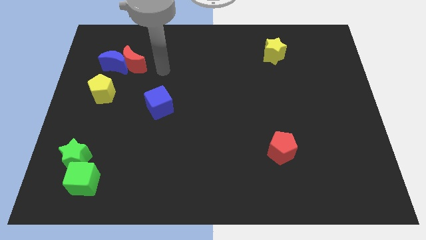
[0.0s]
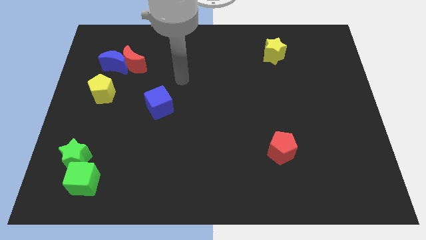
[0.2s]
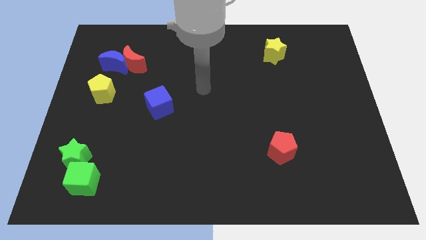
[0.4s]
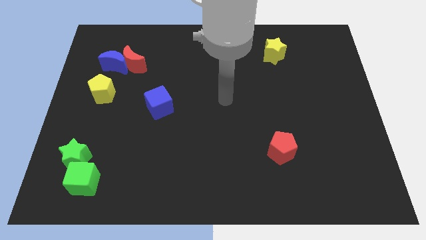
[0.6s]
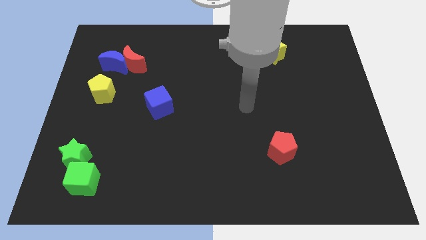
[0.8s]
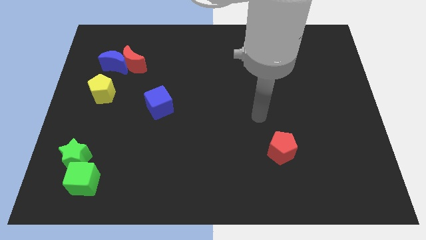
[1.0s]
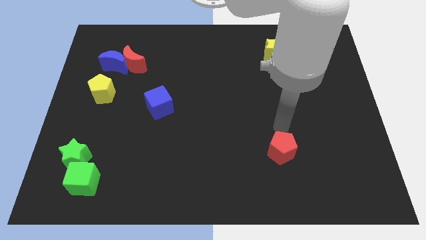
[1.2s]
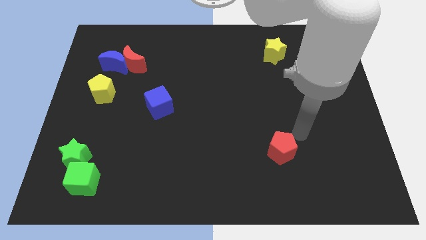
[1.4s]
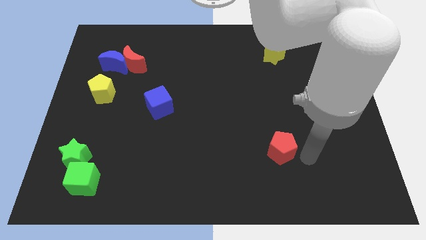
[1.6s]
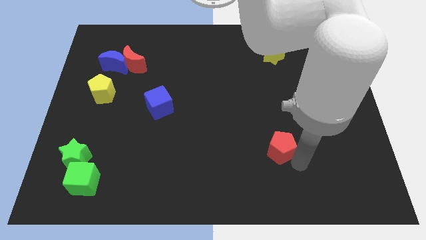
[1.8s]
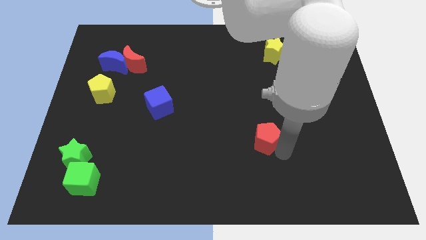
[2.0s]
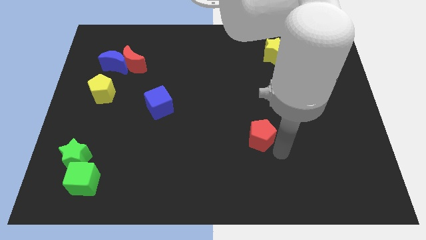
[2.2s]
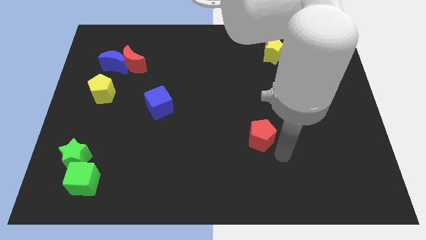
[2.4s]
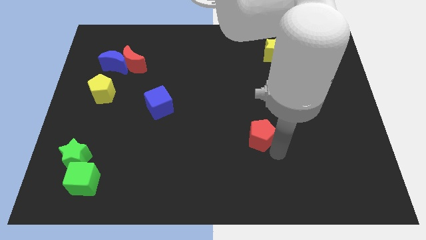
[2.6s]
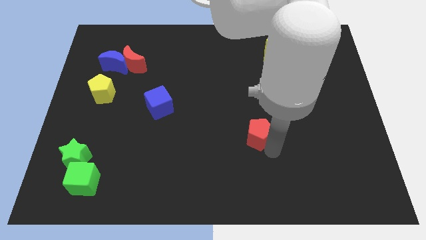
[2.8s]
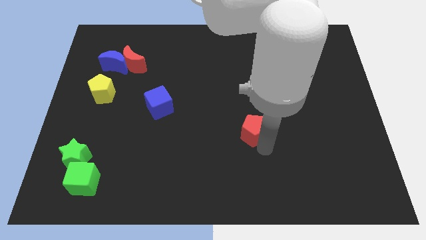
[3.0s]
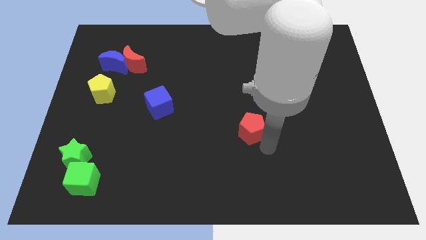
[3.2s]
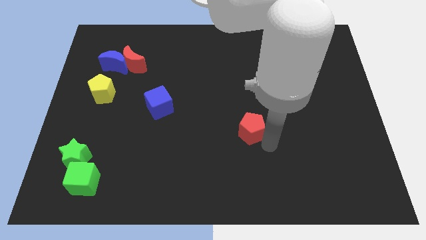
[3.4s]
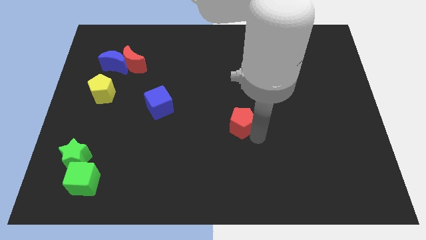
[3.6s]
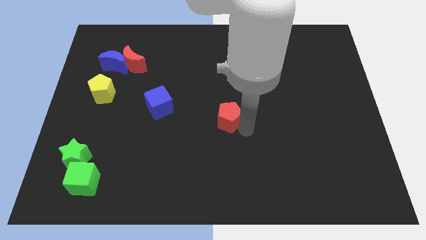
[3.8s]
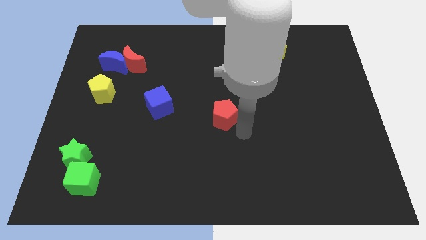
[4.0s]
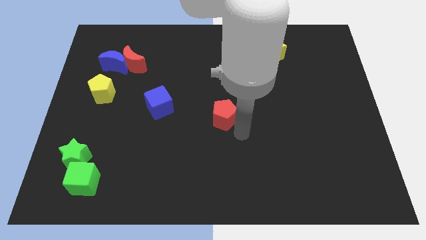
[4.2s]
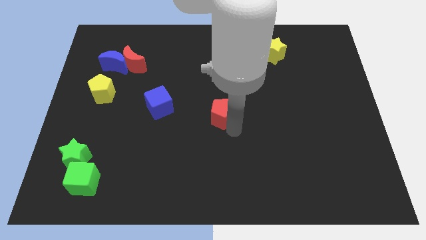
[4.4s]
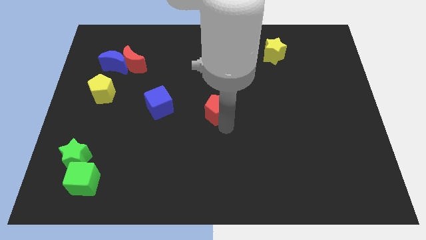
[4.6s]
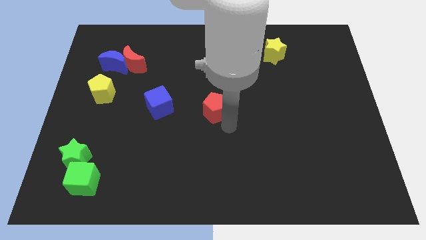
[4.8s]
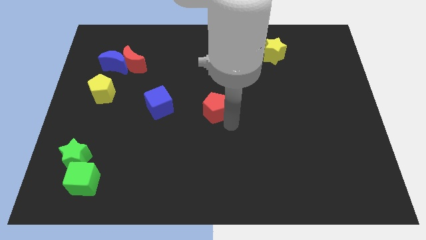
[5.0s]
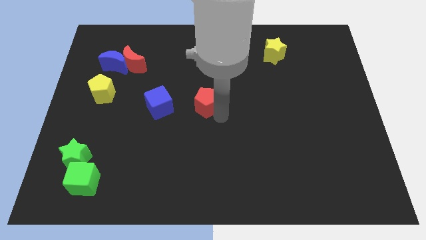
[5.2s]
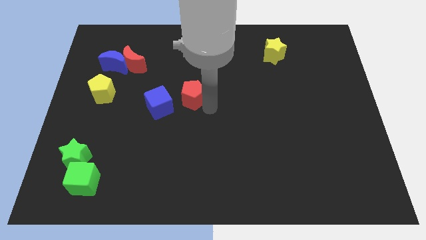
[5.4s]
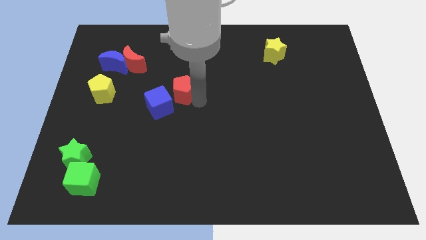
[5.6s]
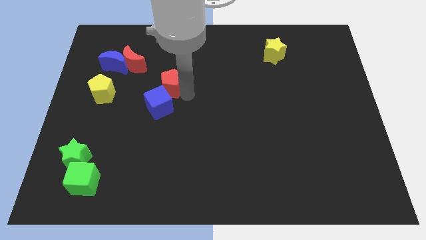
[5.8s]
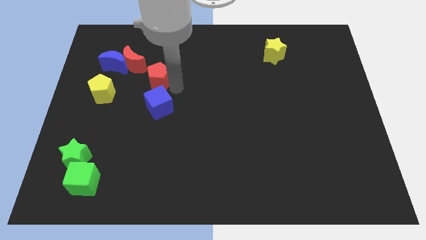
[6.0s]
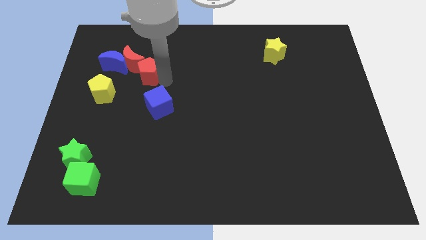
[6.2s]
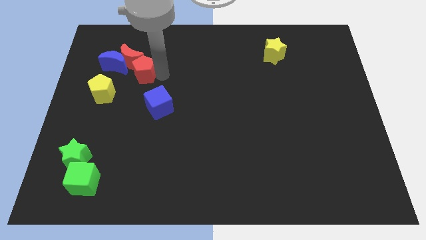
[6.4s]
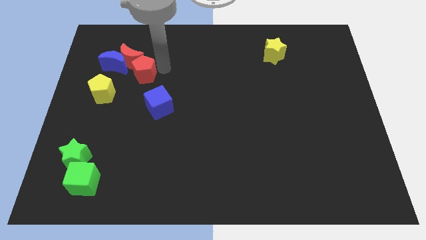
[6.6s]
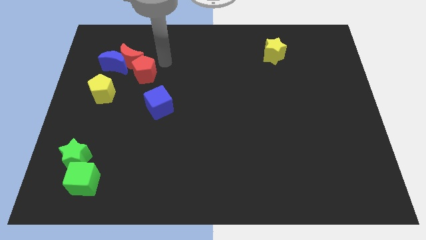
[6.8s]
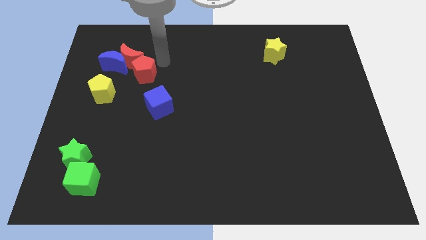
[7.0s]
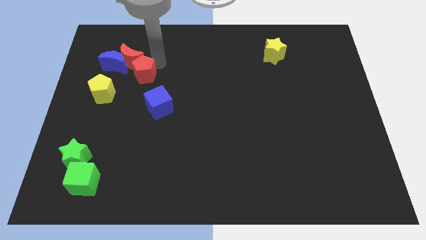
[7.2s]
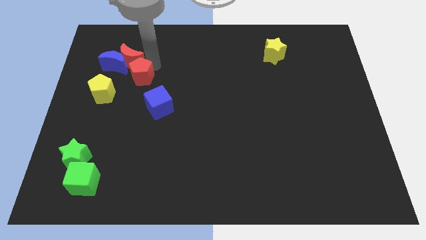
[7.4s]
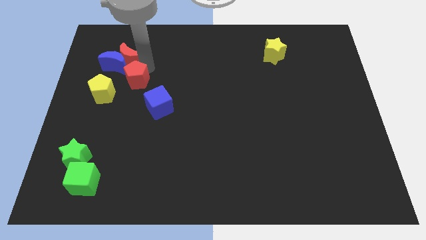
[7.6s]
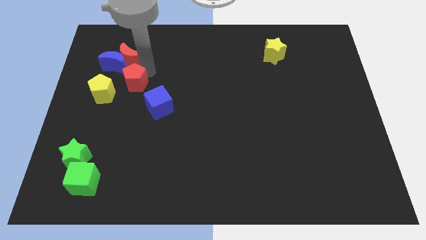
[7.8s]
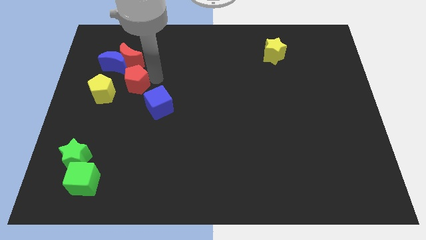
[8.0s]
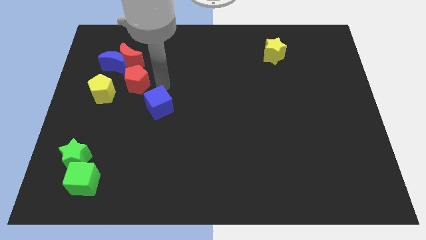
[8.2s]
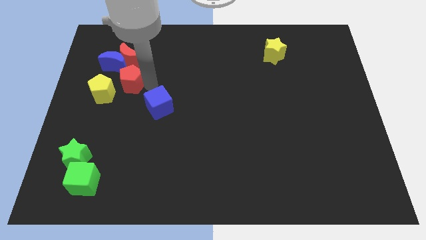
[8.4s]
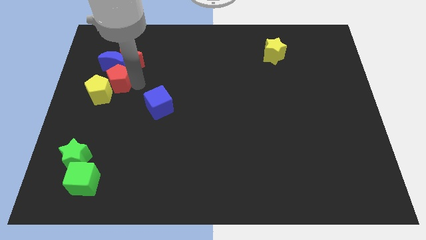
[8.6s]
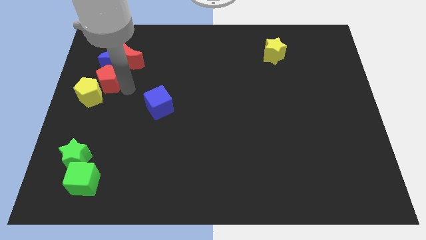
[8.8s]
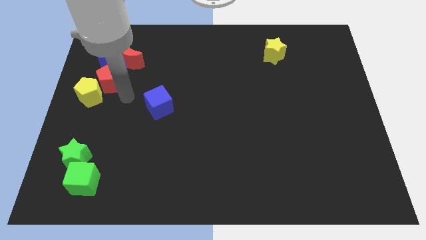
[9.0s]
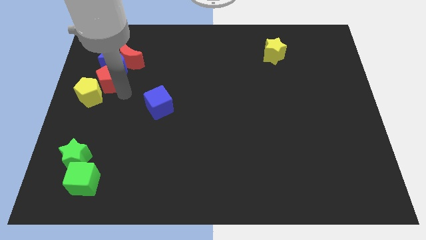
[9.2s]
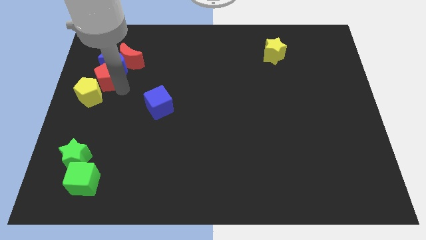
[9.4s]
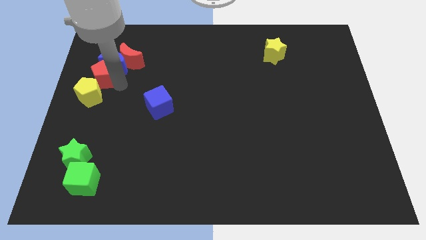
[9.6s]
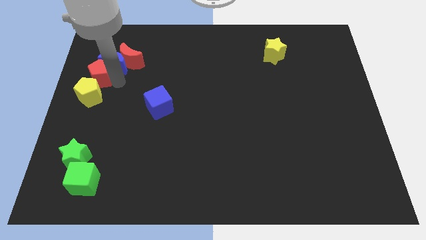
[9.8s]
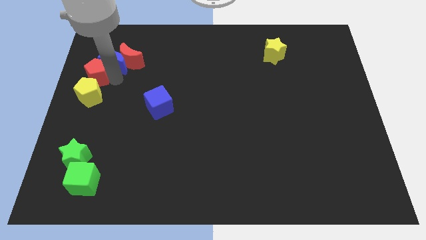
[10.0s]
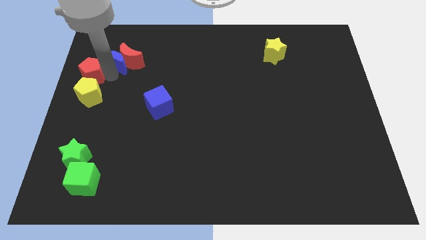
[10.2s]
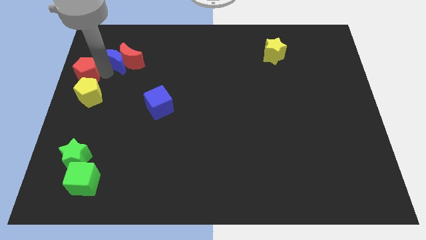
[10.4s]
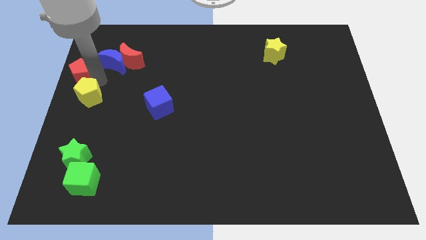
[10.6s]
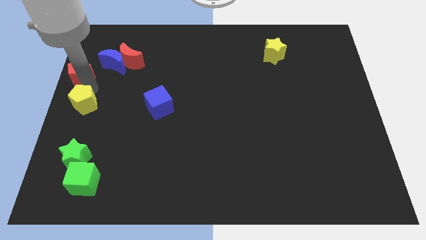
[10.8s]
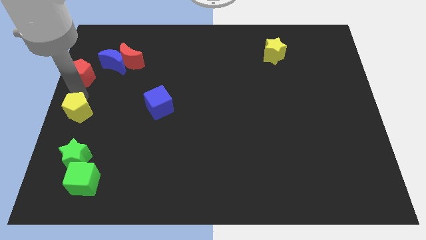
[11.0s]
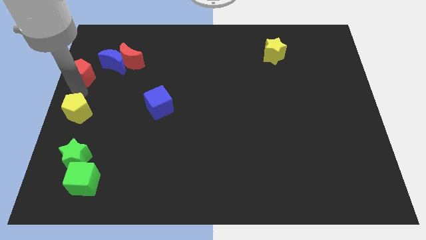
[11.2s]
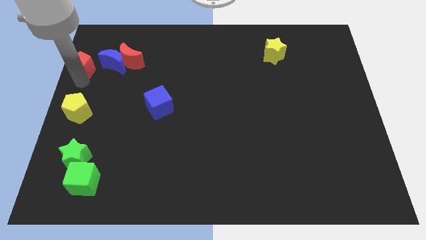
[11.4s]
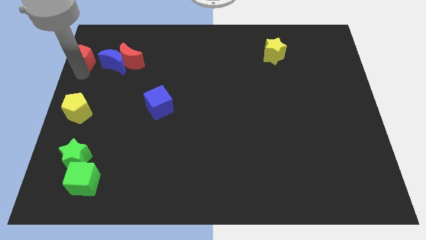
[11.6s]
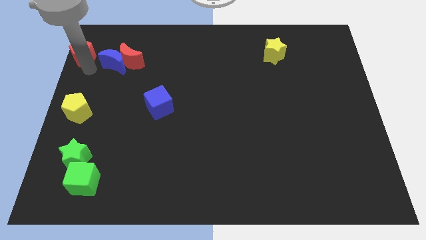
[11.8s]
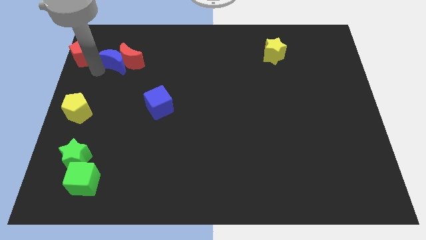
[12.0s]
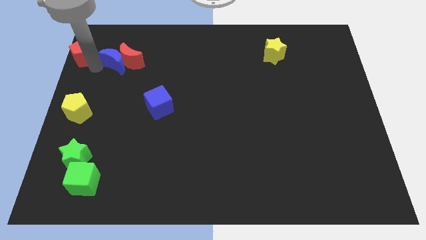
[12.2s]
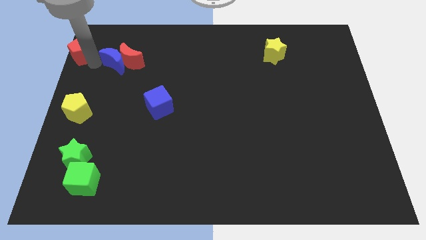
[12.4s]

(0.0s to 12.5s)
move the red pentagon to the top left corner

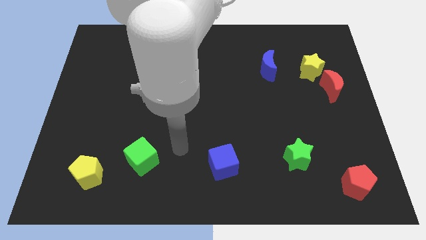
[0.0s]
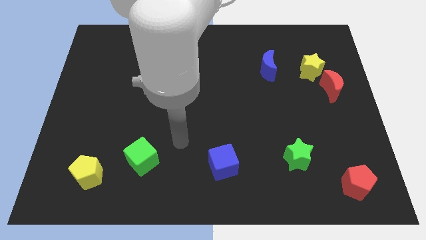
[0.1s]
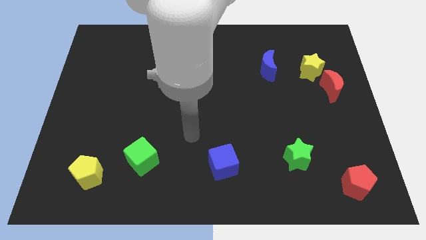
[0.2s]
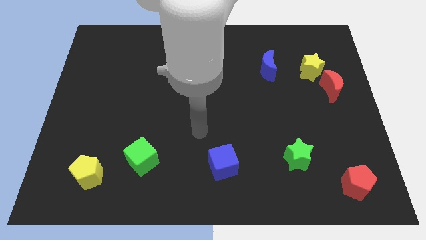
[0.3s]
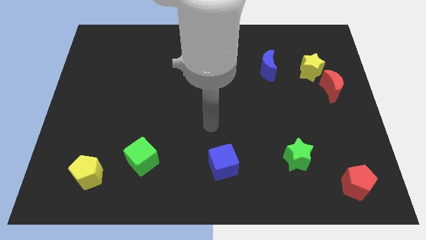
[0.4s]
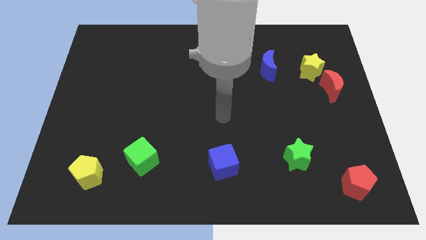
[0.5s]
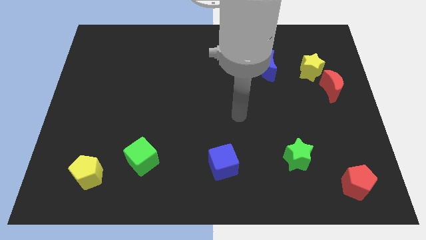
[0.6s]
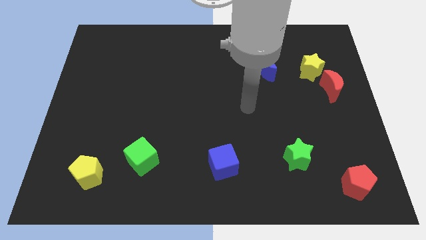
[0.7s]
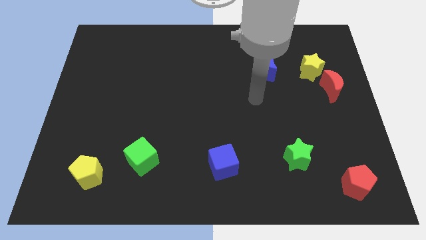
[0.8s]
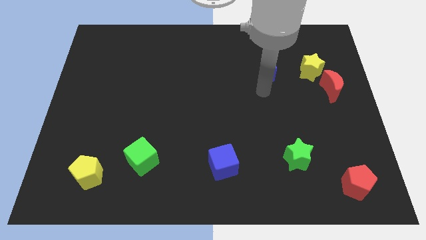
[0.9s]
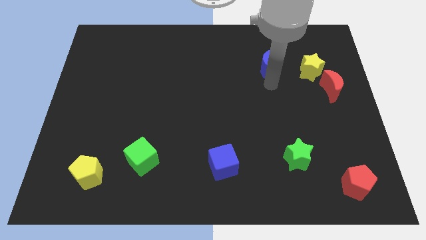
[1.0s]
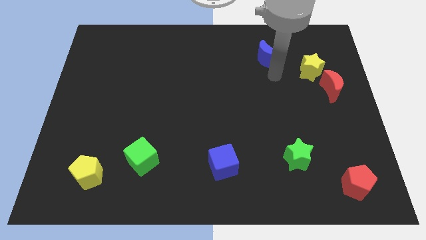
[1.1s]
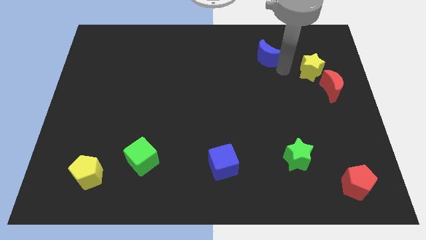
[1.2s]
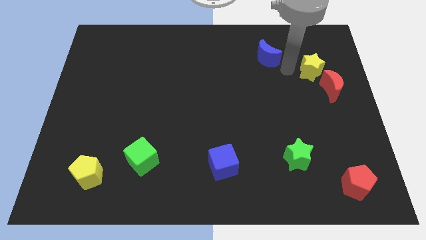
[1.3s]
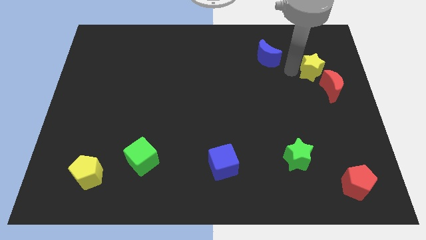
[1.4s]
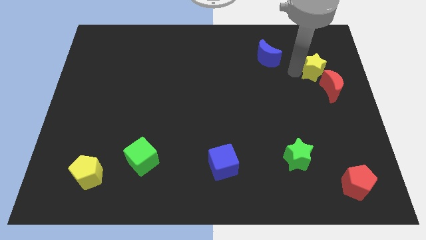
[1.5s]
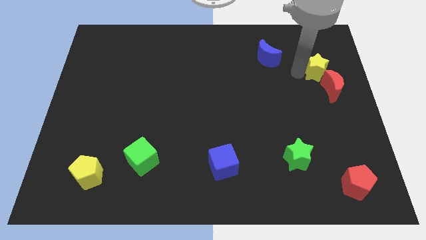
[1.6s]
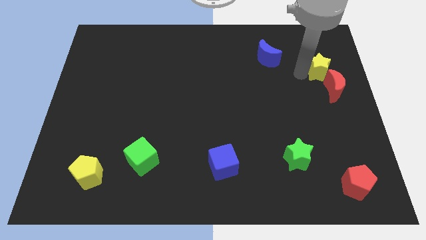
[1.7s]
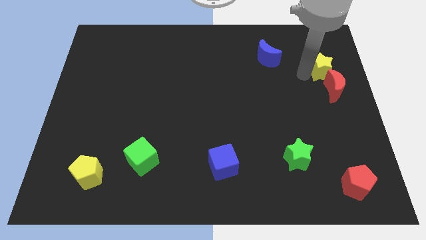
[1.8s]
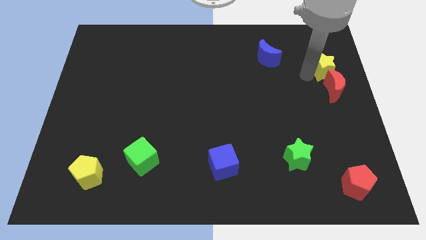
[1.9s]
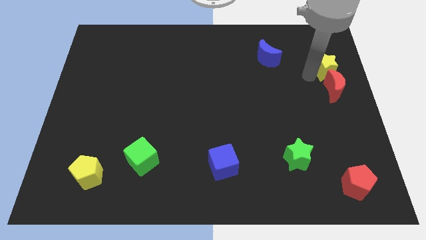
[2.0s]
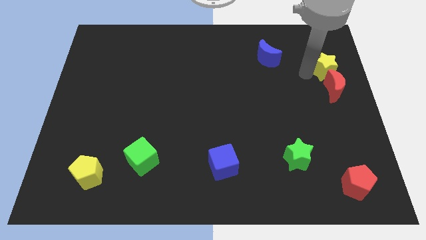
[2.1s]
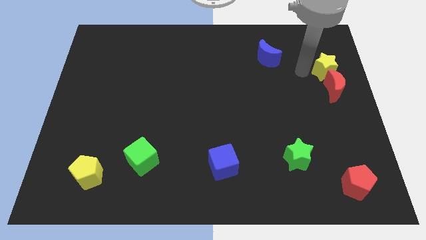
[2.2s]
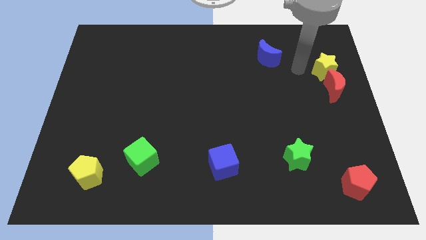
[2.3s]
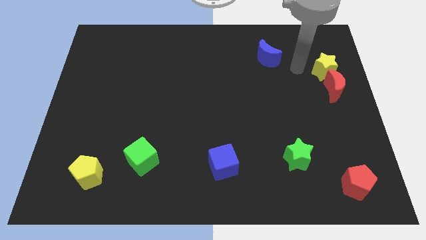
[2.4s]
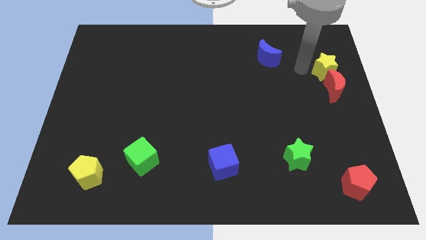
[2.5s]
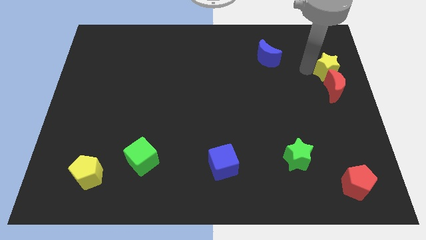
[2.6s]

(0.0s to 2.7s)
push the yellow star to the right side
